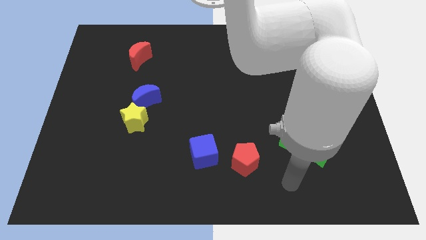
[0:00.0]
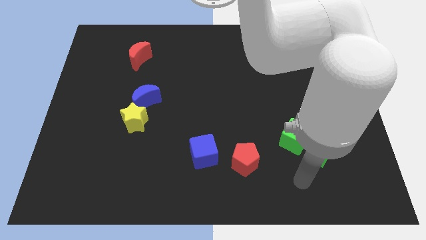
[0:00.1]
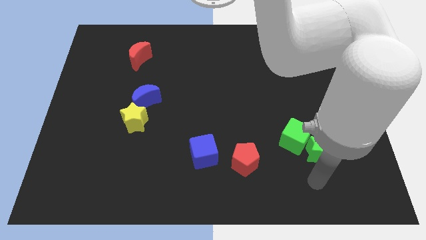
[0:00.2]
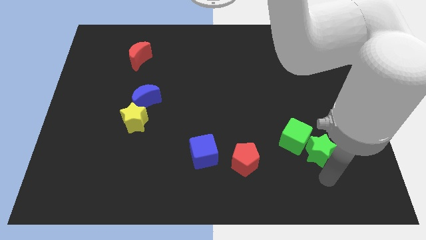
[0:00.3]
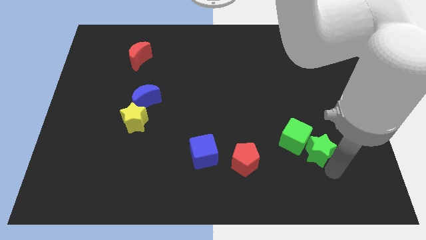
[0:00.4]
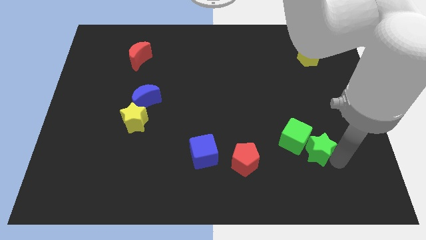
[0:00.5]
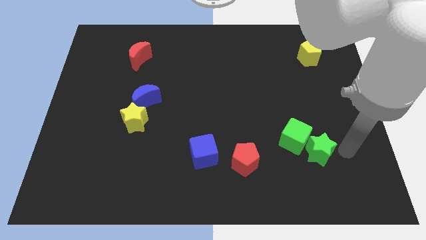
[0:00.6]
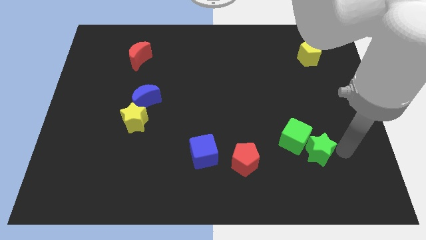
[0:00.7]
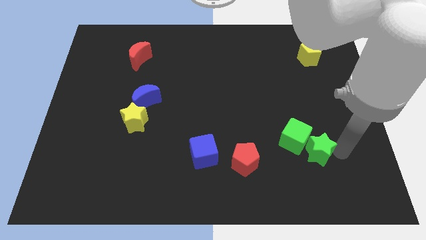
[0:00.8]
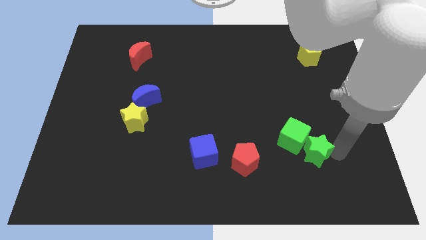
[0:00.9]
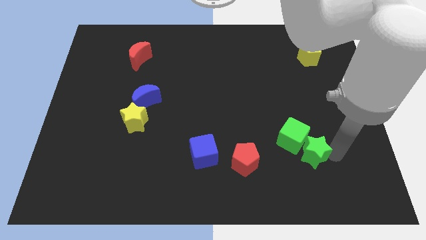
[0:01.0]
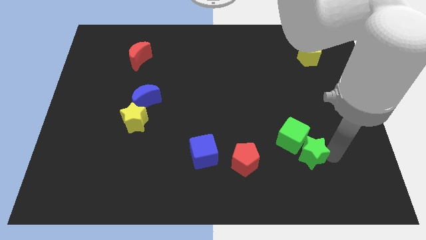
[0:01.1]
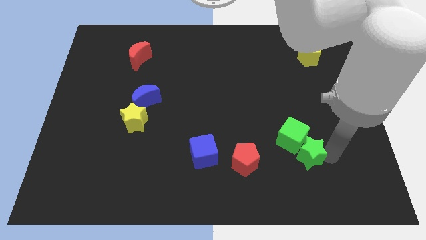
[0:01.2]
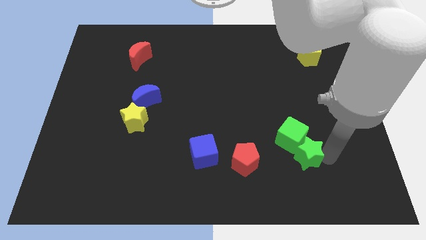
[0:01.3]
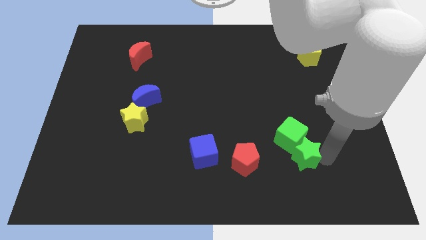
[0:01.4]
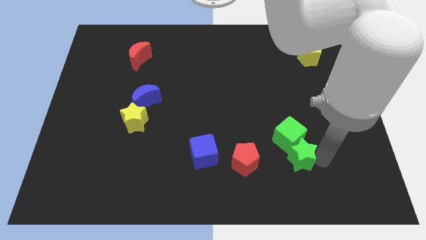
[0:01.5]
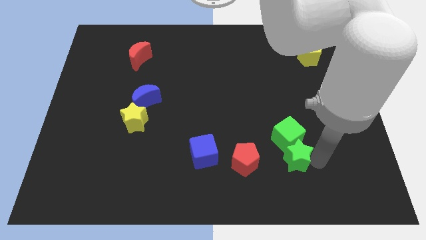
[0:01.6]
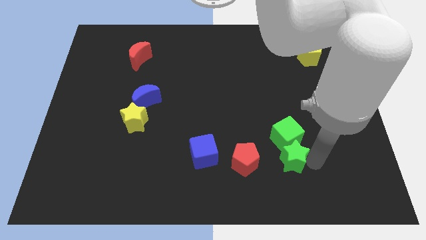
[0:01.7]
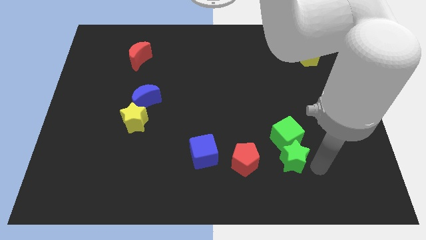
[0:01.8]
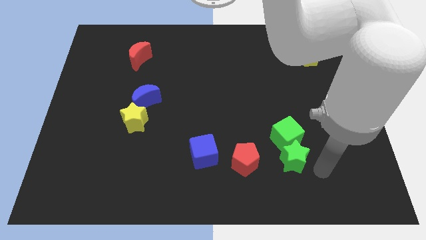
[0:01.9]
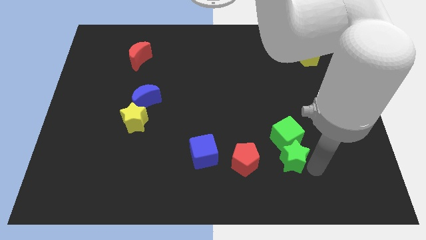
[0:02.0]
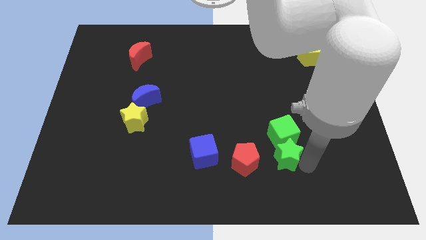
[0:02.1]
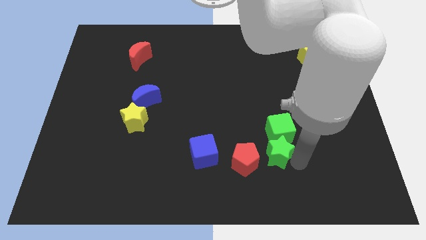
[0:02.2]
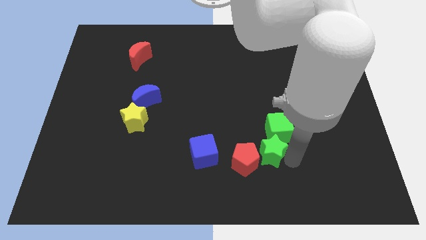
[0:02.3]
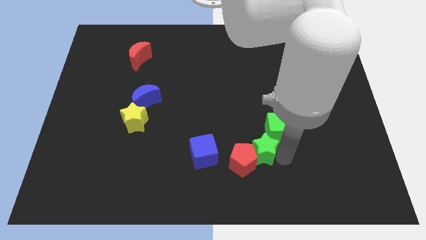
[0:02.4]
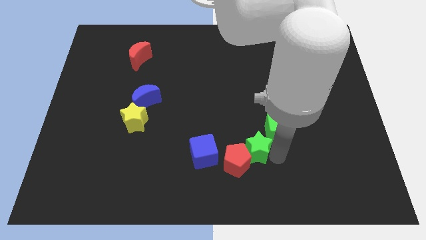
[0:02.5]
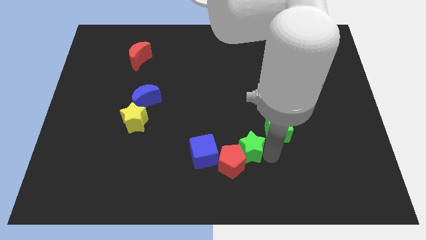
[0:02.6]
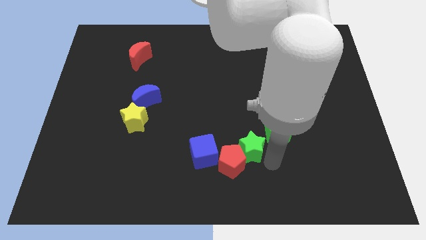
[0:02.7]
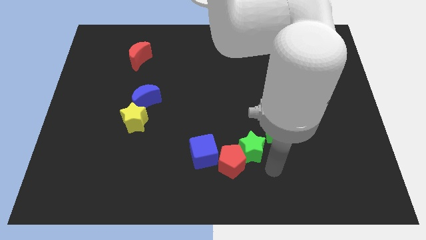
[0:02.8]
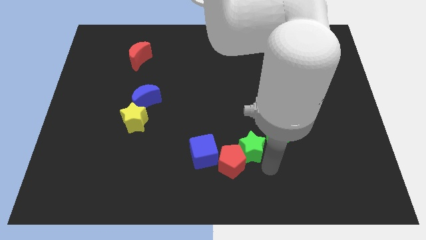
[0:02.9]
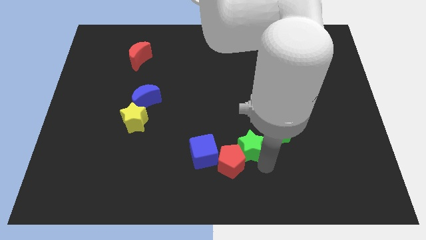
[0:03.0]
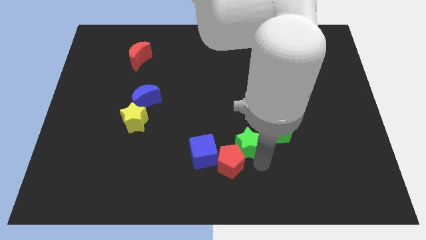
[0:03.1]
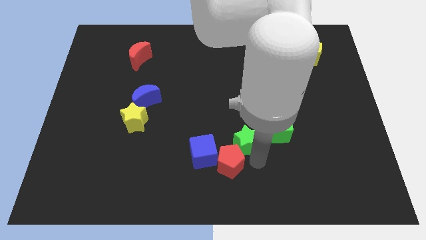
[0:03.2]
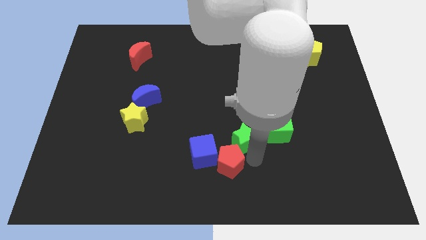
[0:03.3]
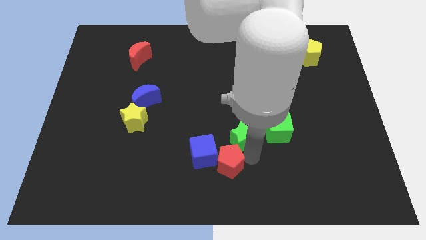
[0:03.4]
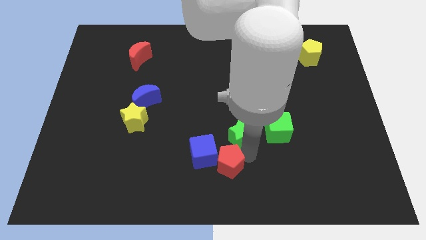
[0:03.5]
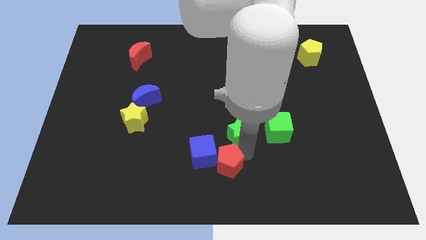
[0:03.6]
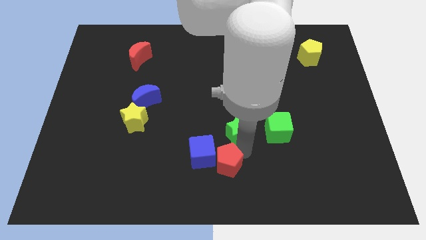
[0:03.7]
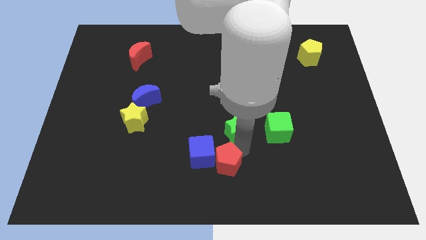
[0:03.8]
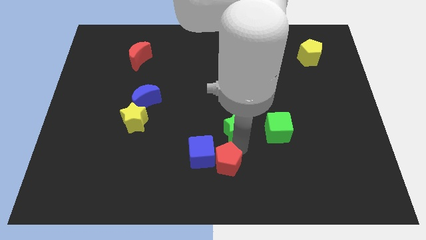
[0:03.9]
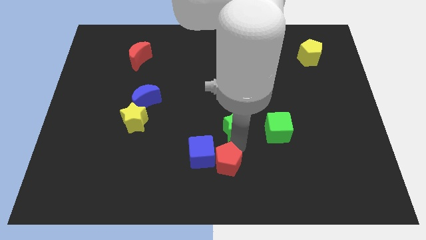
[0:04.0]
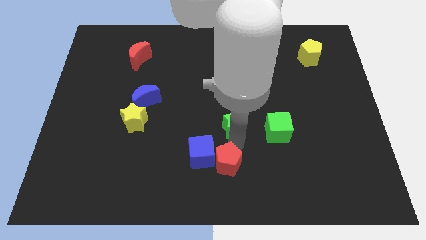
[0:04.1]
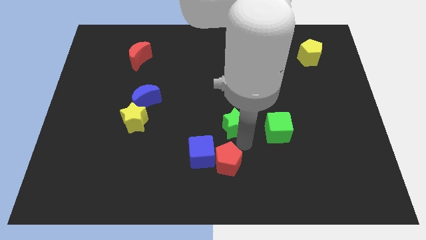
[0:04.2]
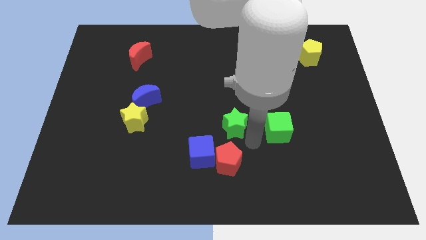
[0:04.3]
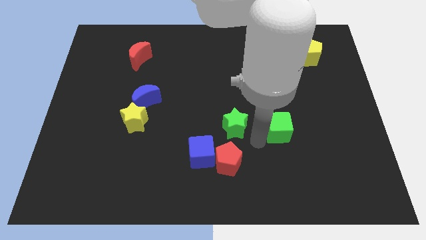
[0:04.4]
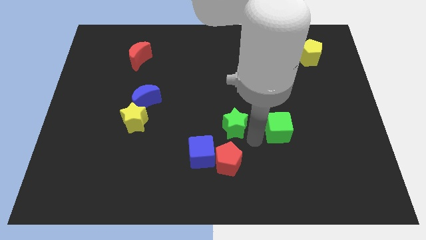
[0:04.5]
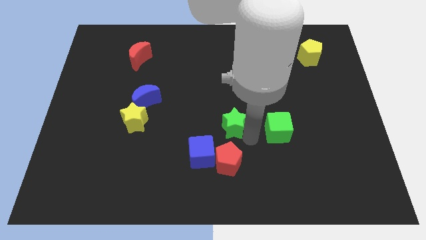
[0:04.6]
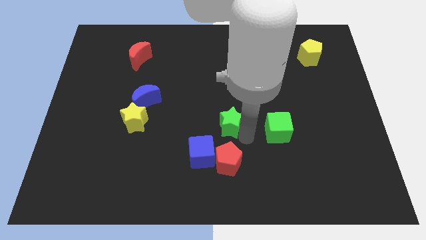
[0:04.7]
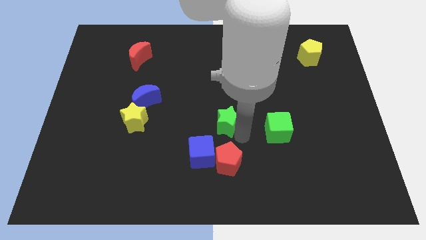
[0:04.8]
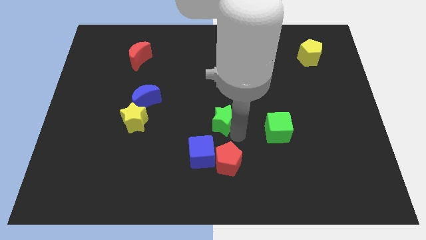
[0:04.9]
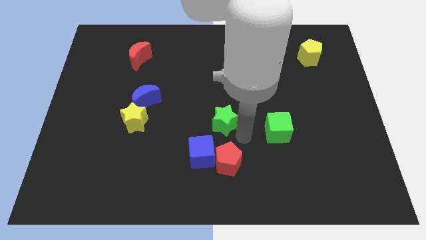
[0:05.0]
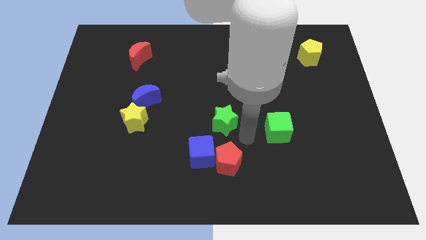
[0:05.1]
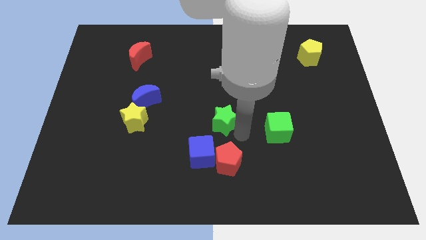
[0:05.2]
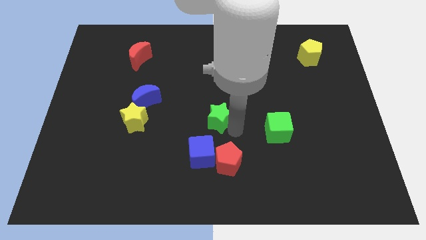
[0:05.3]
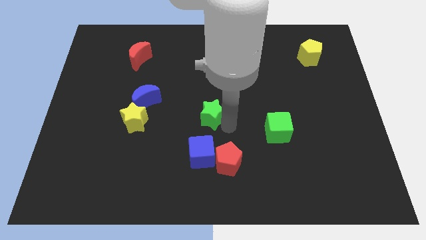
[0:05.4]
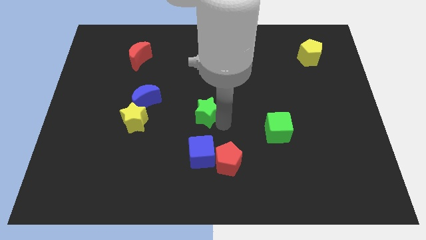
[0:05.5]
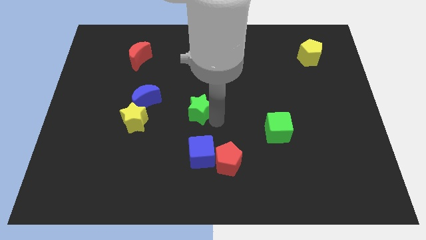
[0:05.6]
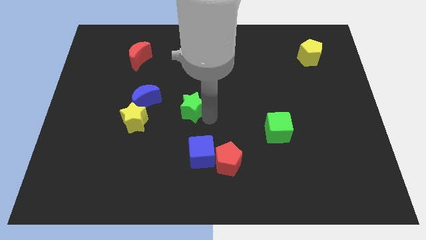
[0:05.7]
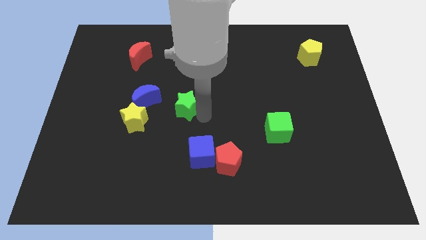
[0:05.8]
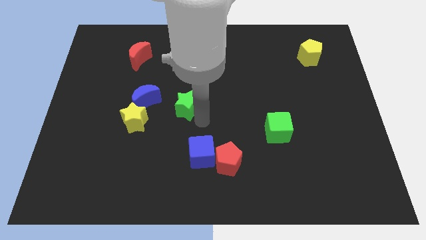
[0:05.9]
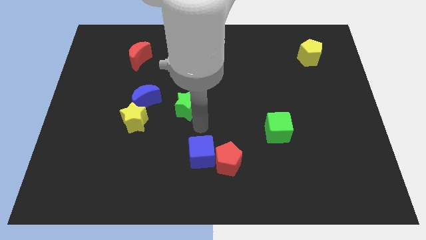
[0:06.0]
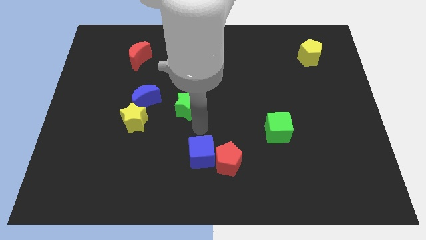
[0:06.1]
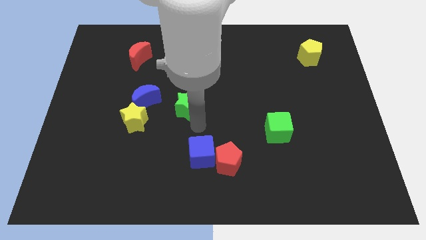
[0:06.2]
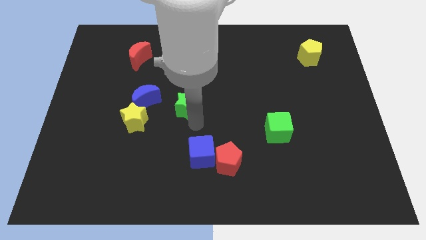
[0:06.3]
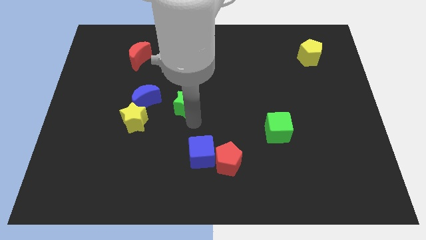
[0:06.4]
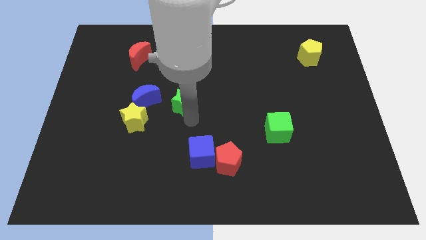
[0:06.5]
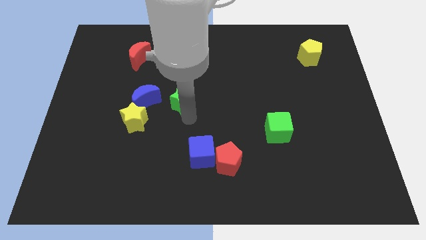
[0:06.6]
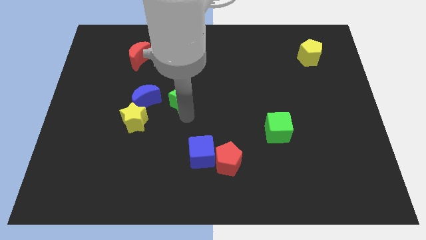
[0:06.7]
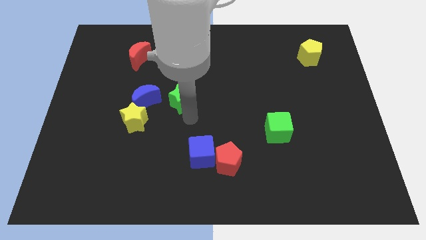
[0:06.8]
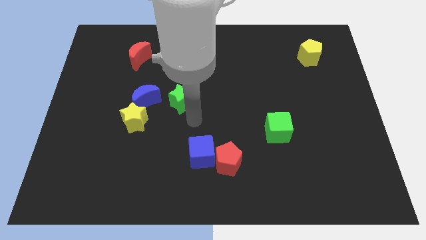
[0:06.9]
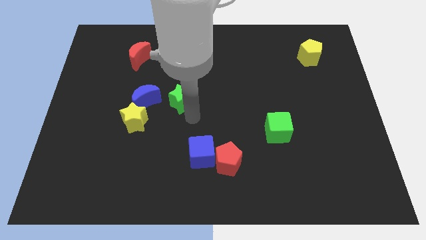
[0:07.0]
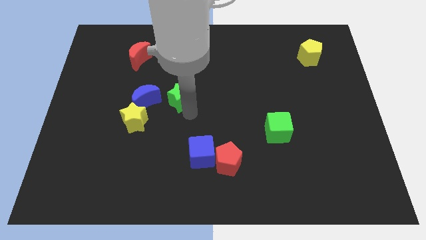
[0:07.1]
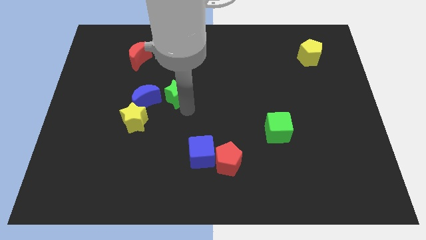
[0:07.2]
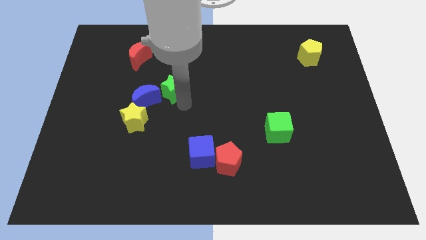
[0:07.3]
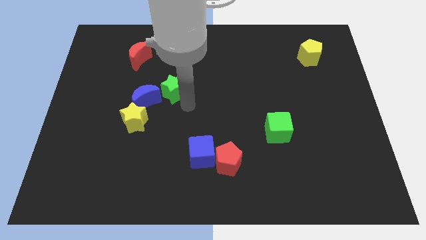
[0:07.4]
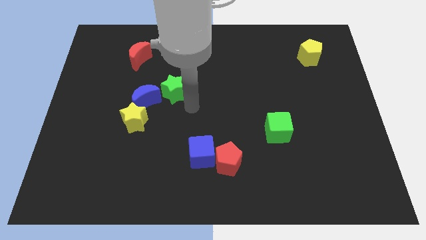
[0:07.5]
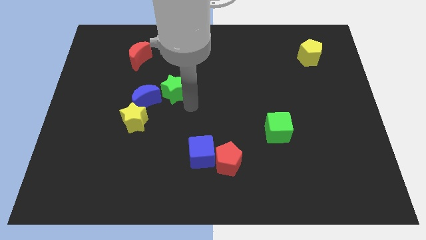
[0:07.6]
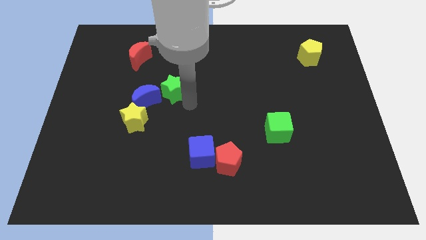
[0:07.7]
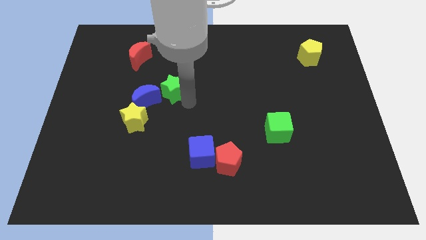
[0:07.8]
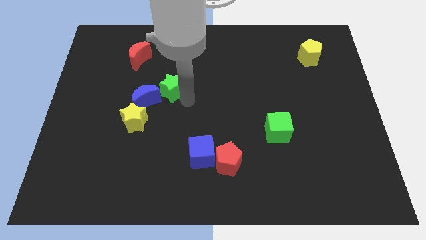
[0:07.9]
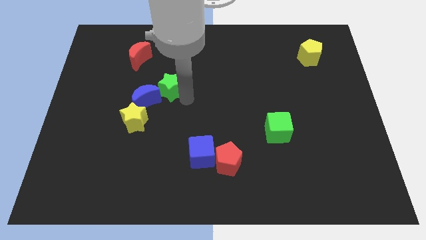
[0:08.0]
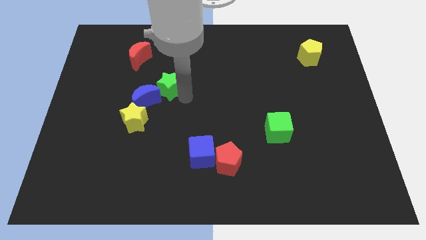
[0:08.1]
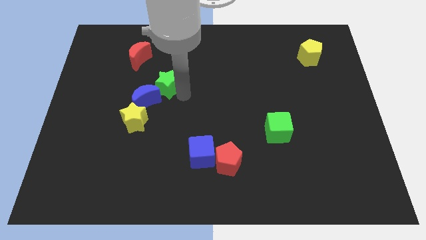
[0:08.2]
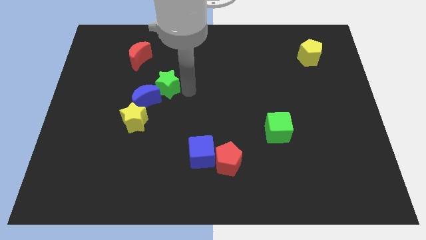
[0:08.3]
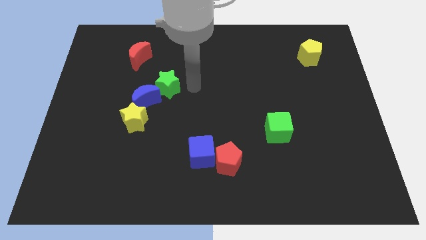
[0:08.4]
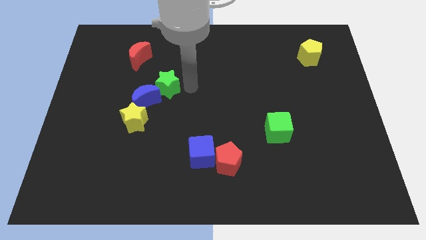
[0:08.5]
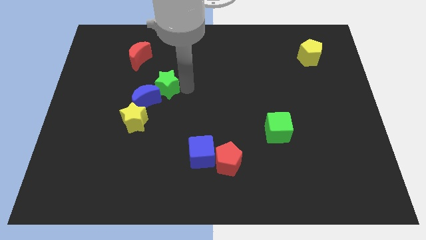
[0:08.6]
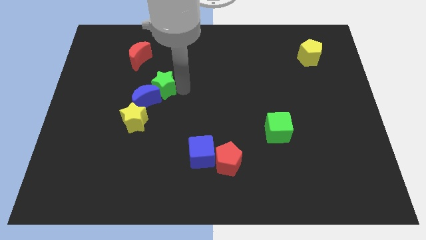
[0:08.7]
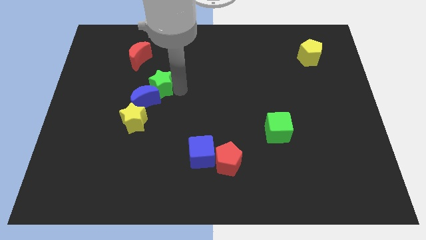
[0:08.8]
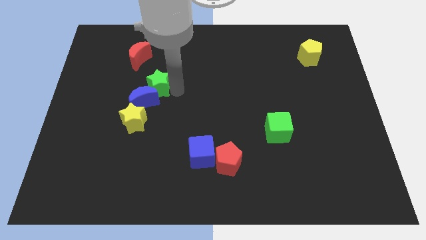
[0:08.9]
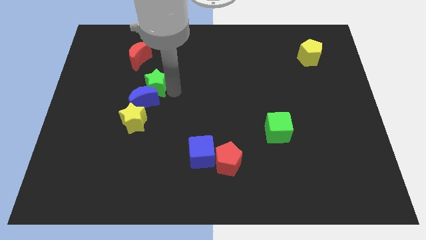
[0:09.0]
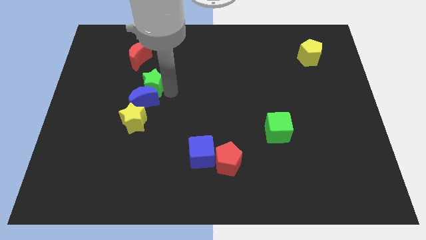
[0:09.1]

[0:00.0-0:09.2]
slide the green star below the red moon
